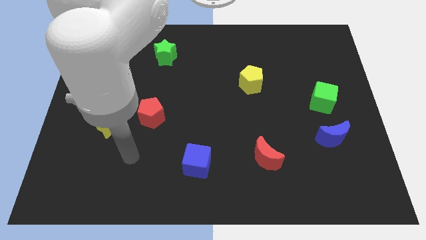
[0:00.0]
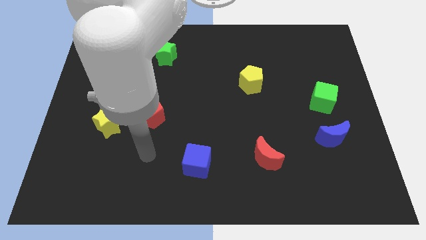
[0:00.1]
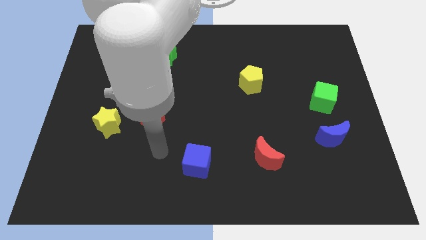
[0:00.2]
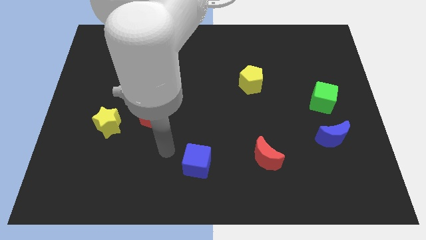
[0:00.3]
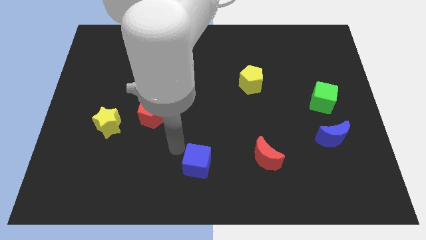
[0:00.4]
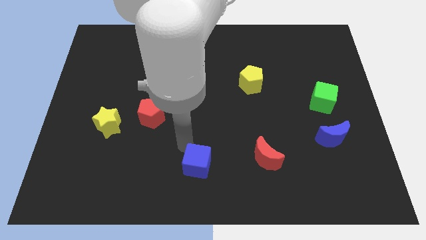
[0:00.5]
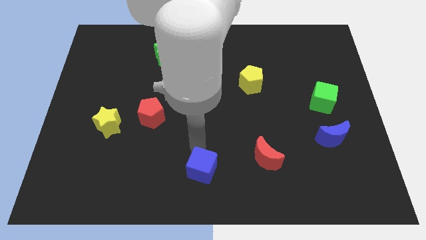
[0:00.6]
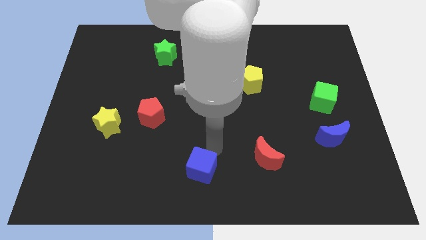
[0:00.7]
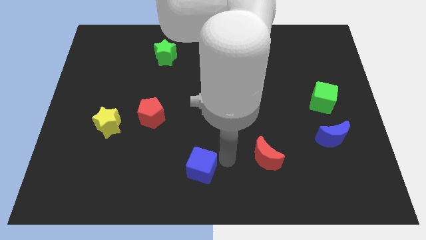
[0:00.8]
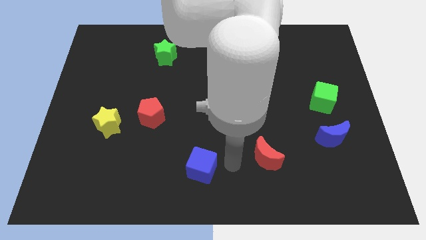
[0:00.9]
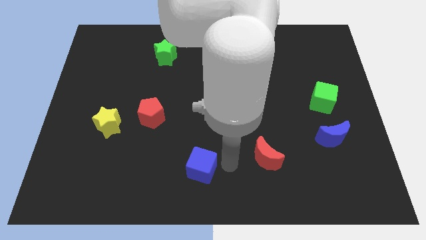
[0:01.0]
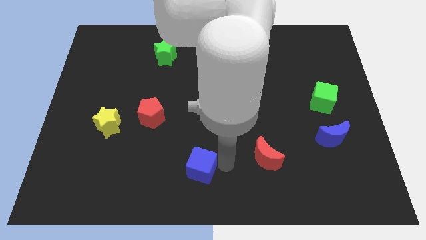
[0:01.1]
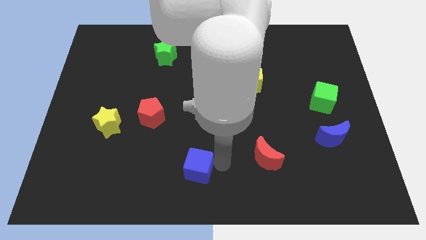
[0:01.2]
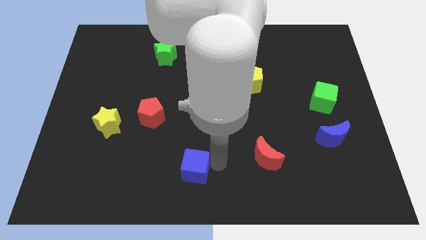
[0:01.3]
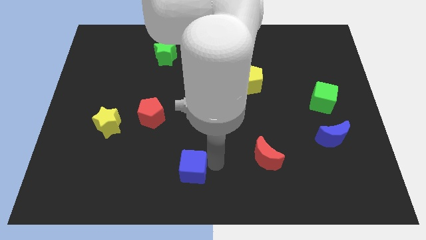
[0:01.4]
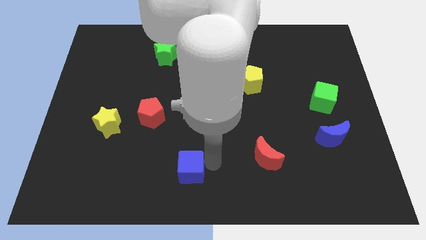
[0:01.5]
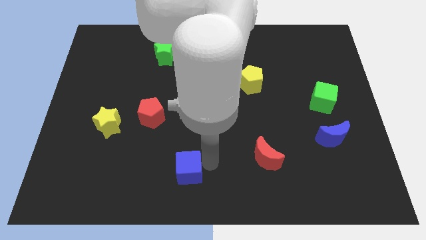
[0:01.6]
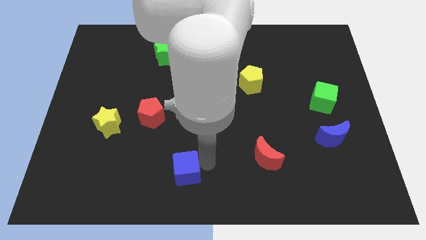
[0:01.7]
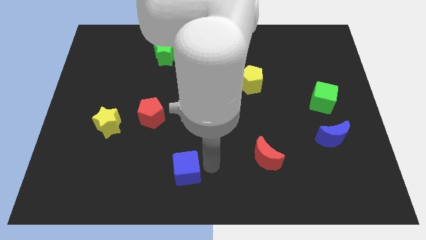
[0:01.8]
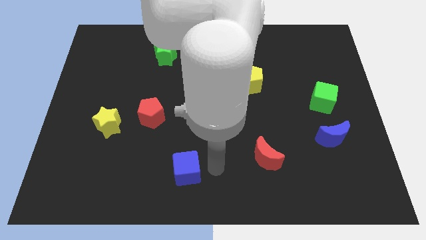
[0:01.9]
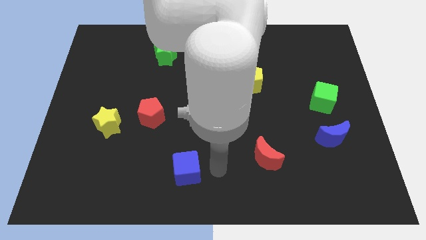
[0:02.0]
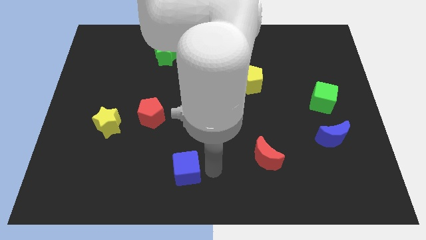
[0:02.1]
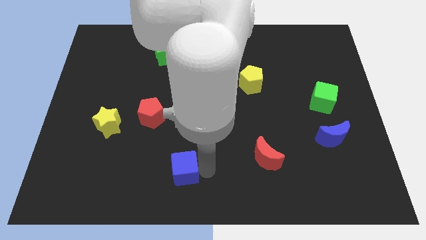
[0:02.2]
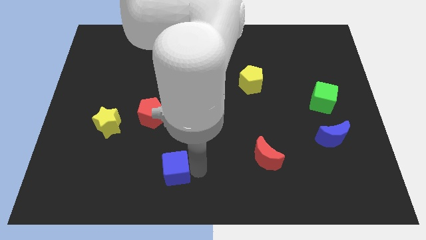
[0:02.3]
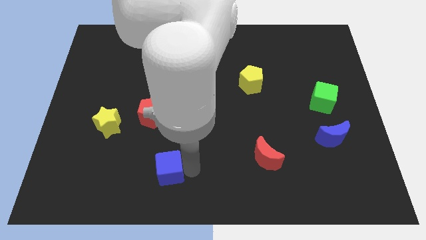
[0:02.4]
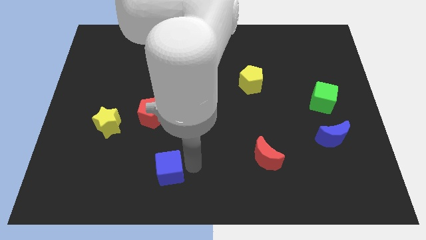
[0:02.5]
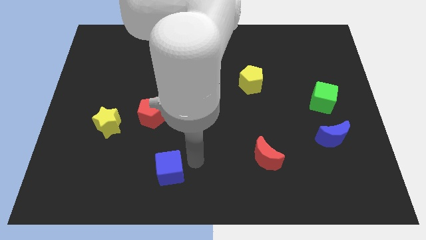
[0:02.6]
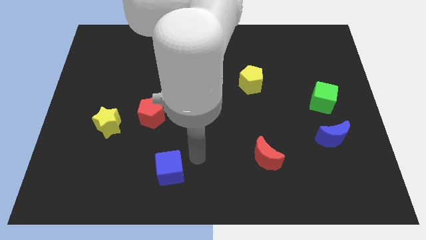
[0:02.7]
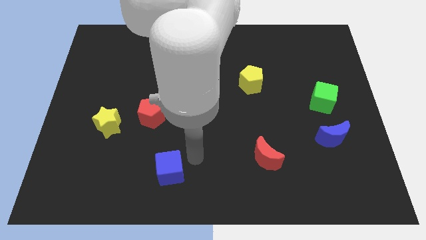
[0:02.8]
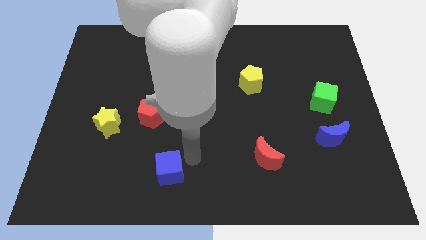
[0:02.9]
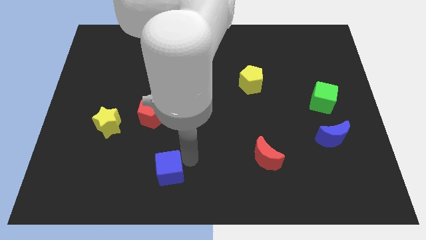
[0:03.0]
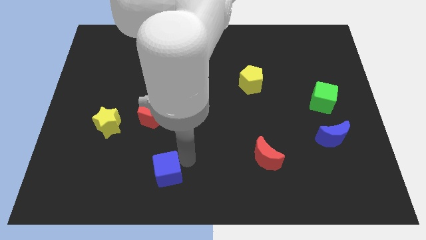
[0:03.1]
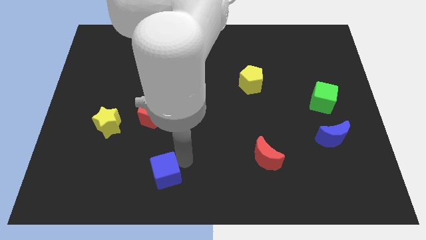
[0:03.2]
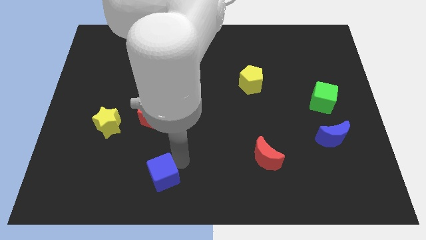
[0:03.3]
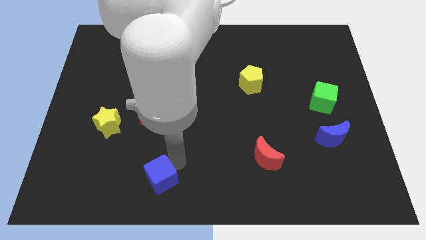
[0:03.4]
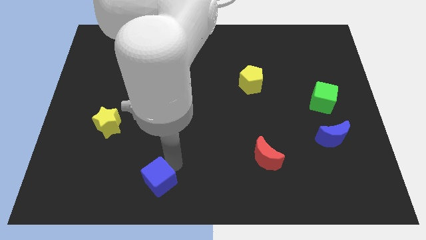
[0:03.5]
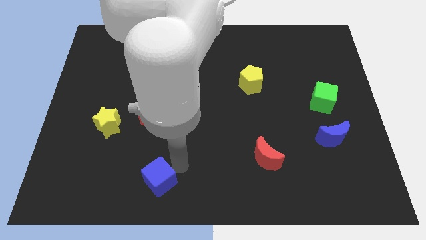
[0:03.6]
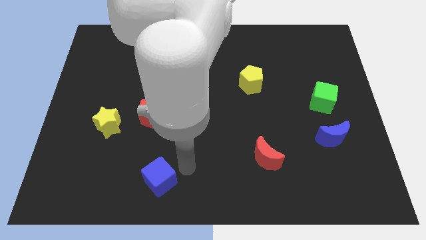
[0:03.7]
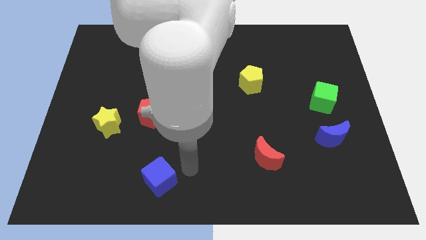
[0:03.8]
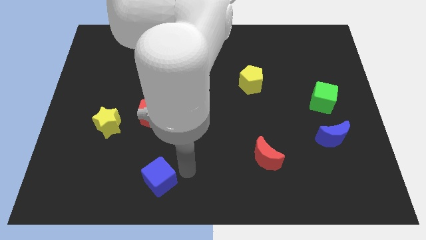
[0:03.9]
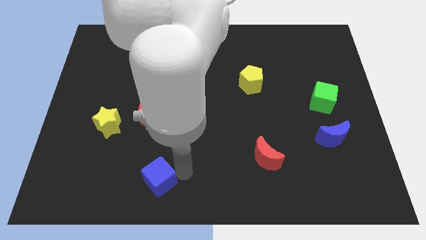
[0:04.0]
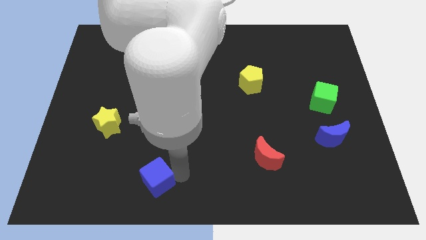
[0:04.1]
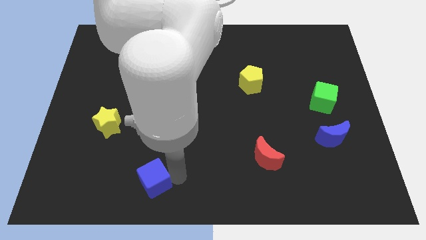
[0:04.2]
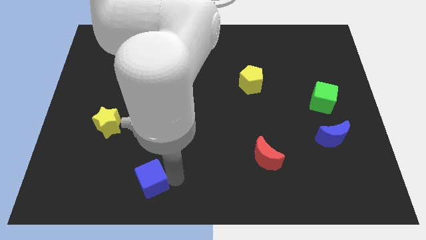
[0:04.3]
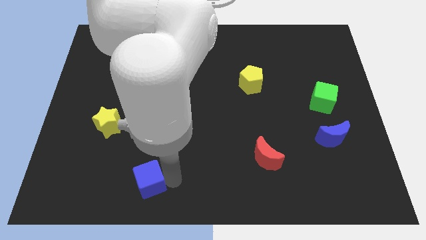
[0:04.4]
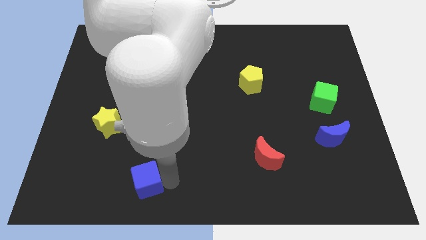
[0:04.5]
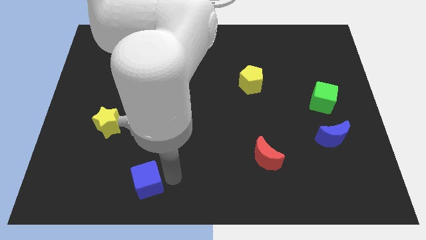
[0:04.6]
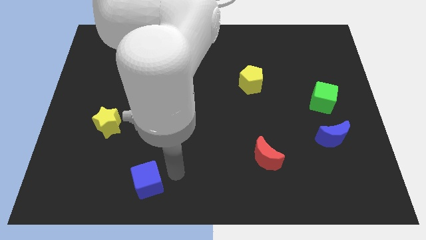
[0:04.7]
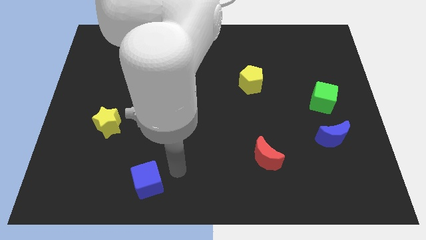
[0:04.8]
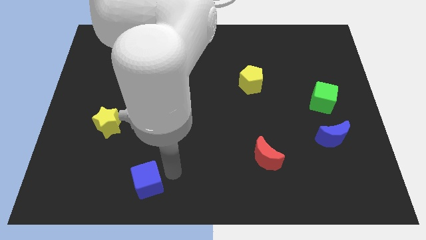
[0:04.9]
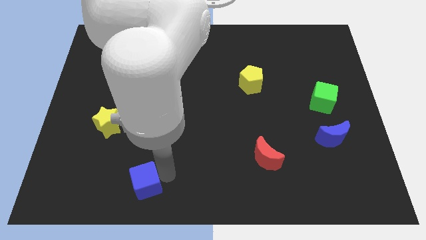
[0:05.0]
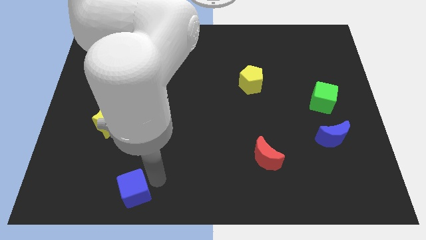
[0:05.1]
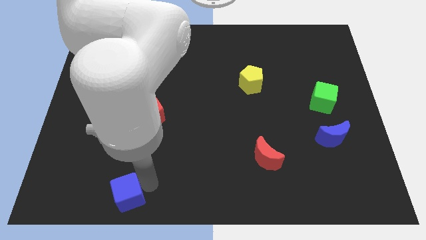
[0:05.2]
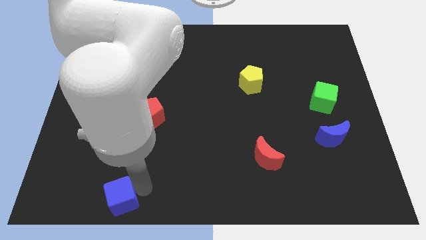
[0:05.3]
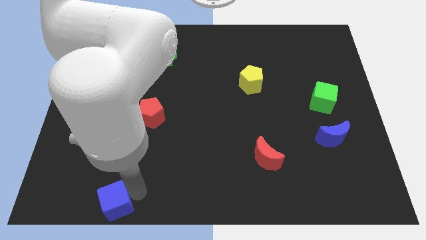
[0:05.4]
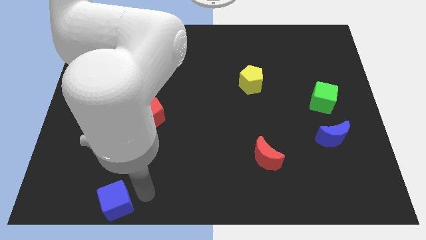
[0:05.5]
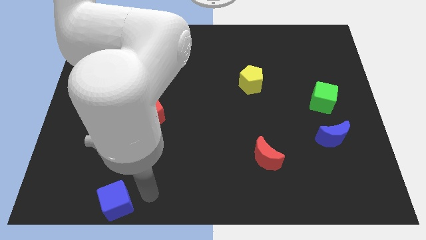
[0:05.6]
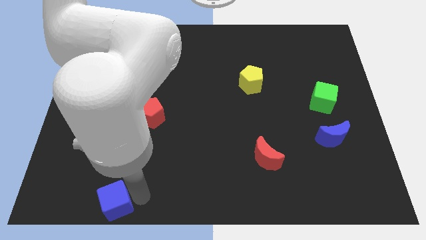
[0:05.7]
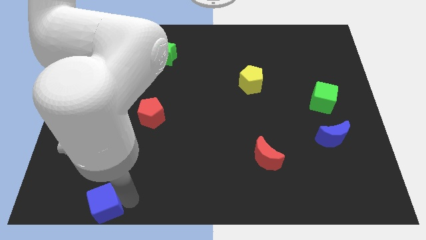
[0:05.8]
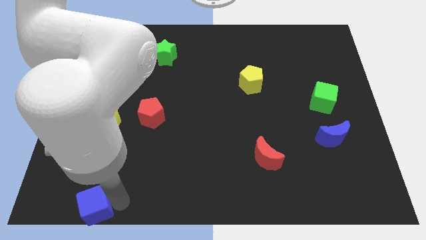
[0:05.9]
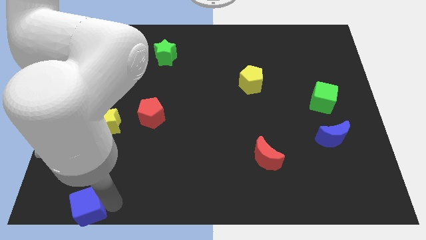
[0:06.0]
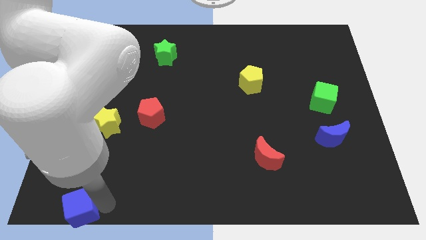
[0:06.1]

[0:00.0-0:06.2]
push the blue cube to the bottom left of the board

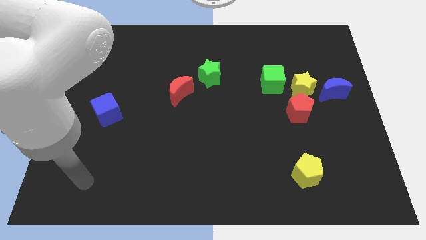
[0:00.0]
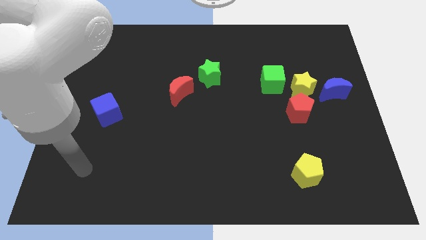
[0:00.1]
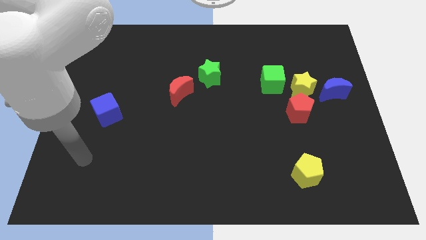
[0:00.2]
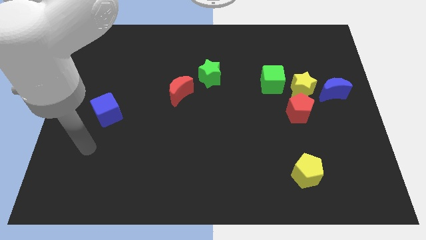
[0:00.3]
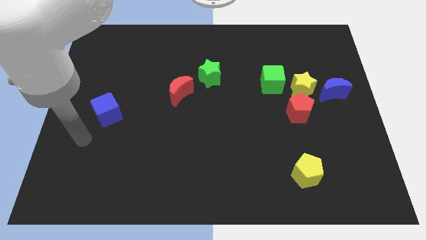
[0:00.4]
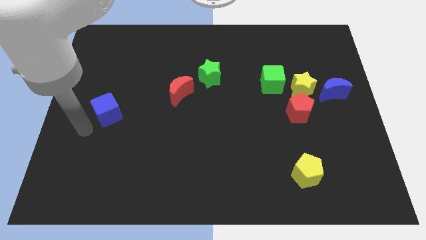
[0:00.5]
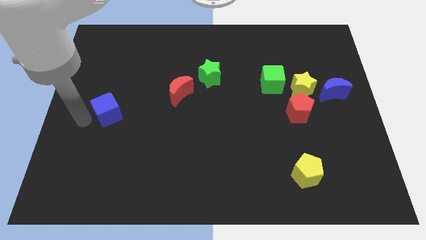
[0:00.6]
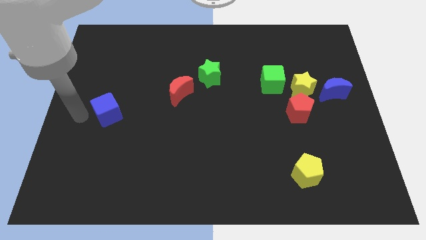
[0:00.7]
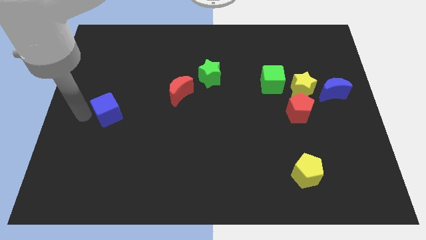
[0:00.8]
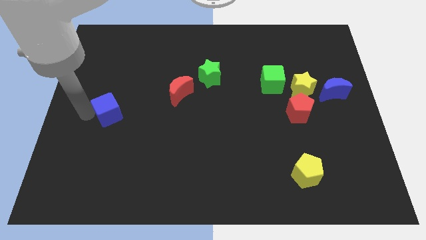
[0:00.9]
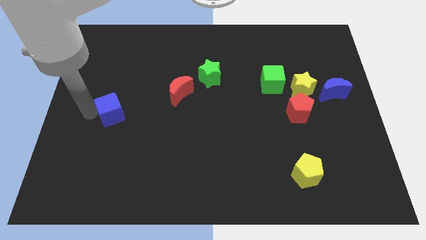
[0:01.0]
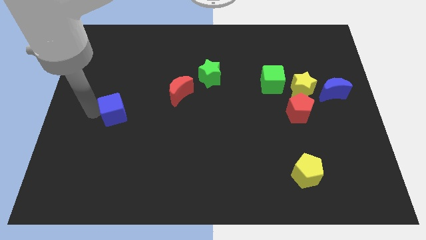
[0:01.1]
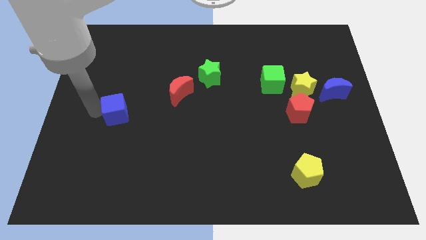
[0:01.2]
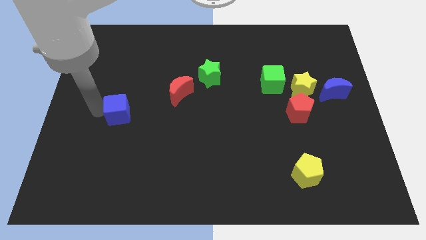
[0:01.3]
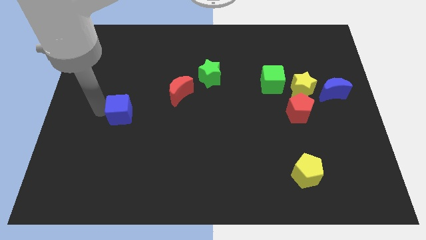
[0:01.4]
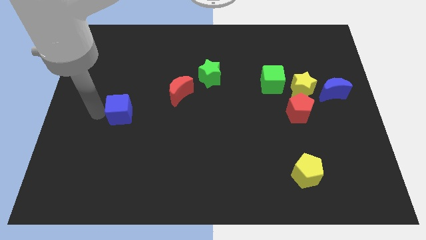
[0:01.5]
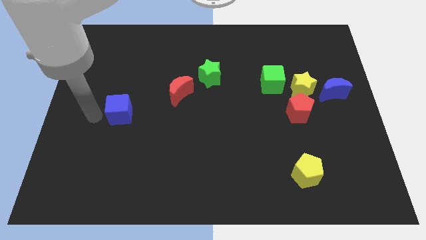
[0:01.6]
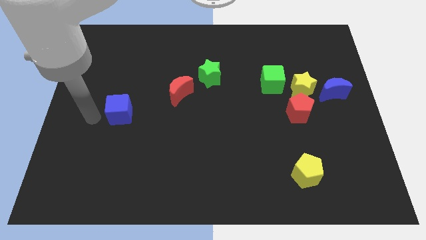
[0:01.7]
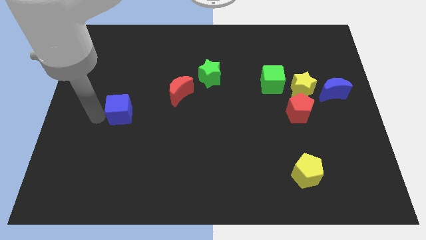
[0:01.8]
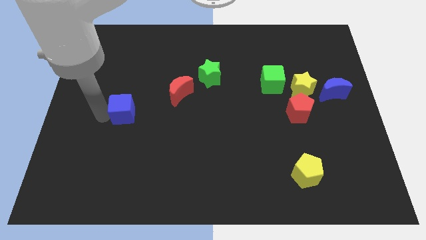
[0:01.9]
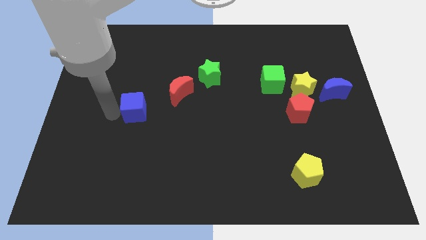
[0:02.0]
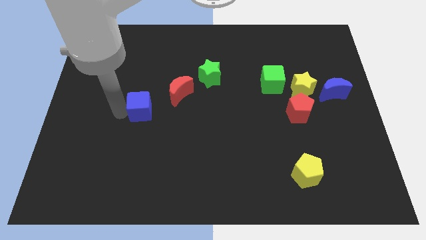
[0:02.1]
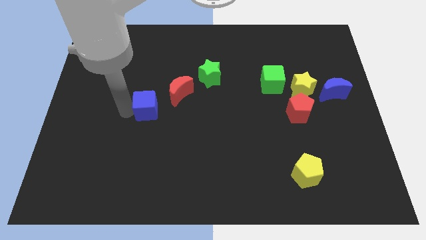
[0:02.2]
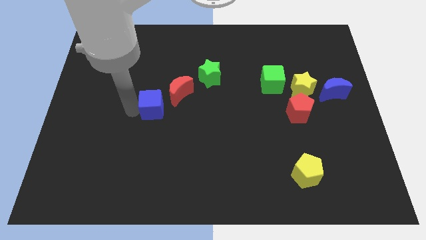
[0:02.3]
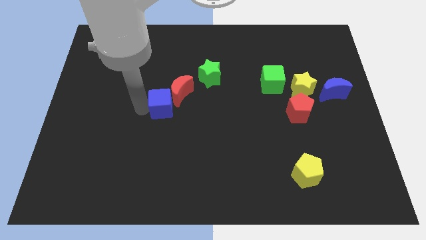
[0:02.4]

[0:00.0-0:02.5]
push the blue cube to the center
